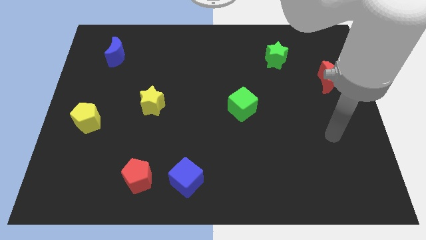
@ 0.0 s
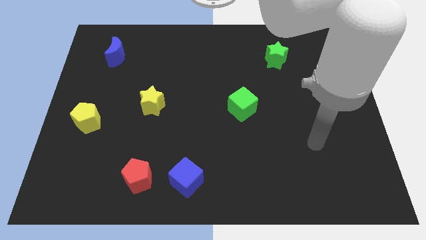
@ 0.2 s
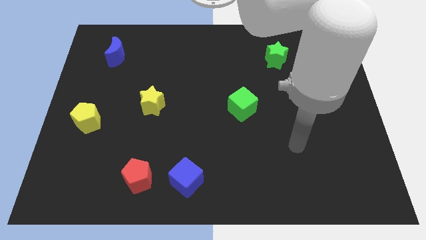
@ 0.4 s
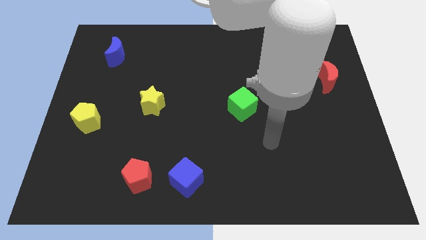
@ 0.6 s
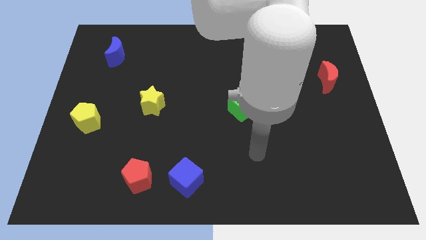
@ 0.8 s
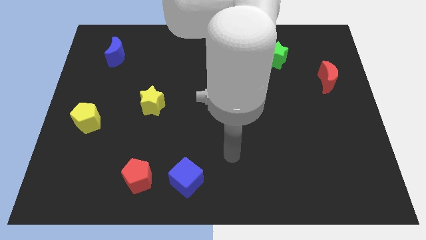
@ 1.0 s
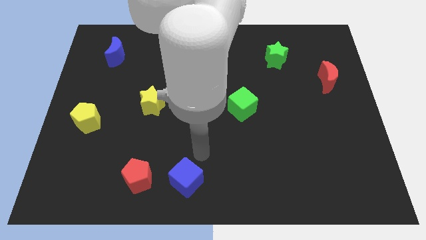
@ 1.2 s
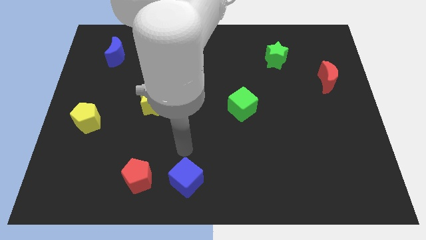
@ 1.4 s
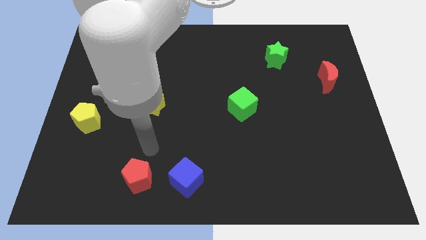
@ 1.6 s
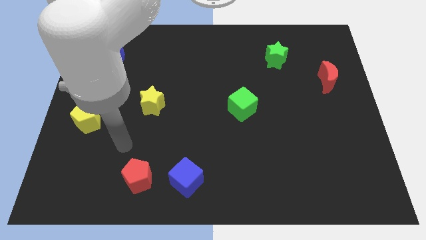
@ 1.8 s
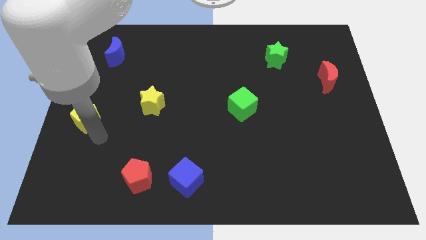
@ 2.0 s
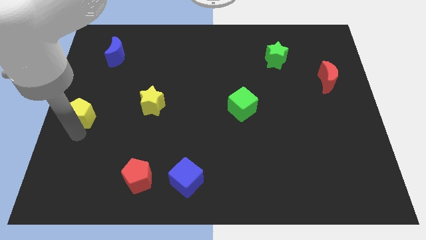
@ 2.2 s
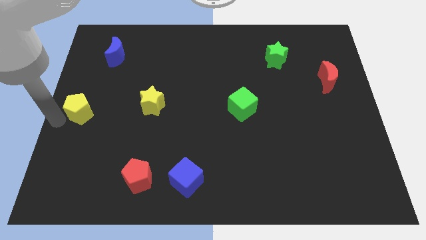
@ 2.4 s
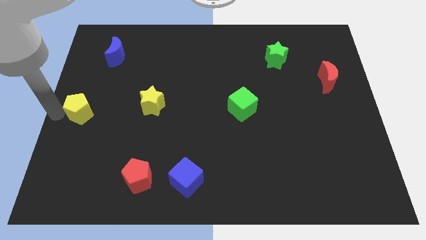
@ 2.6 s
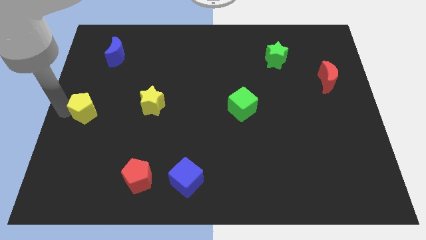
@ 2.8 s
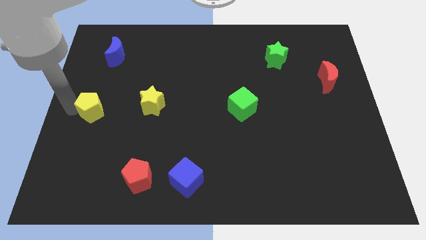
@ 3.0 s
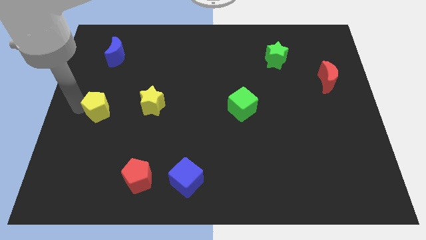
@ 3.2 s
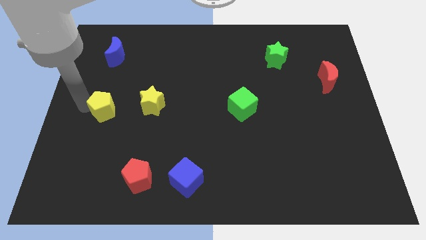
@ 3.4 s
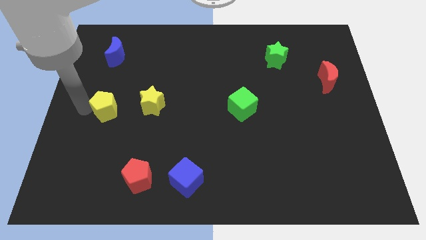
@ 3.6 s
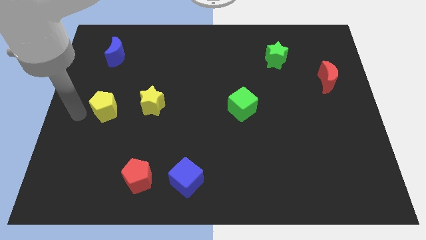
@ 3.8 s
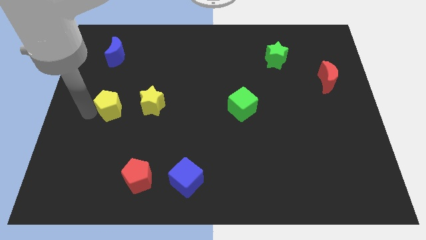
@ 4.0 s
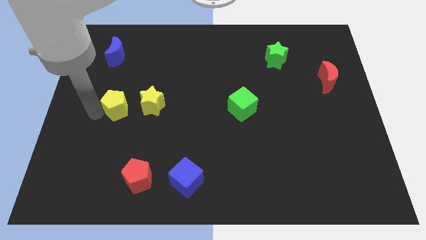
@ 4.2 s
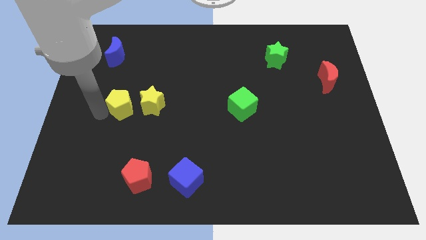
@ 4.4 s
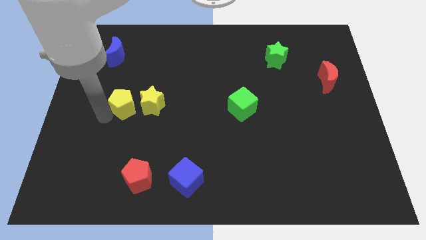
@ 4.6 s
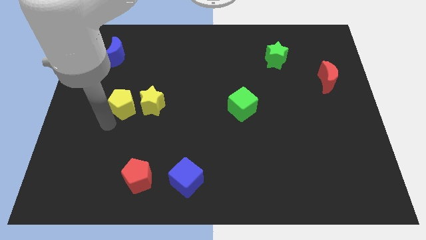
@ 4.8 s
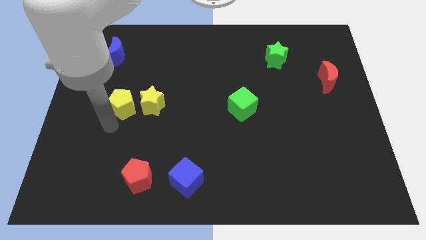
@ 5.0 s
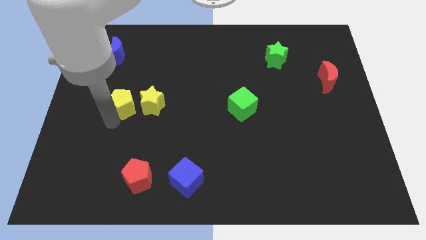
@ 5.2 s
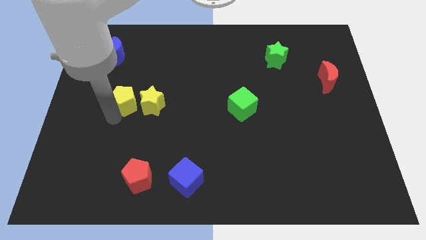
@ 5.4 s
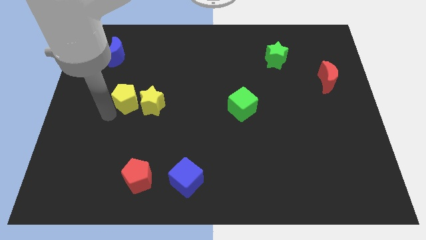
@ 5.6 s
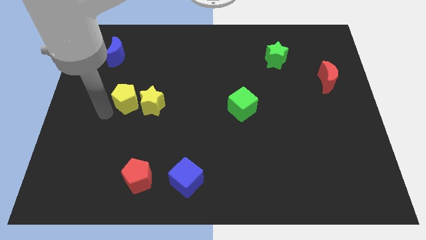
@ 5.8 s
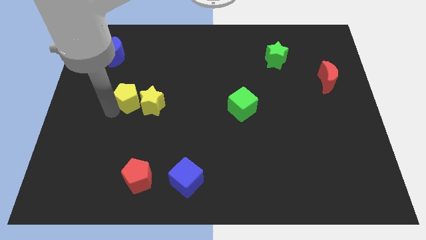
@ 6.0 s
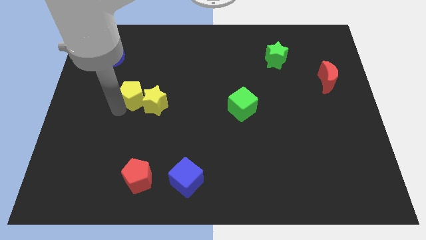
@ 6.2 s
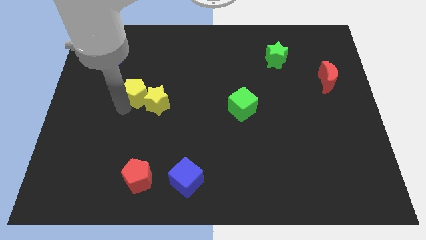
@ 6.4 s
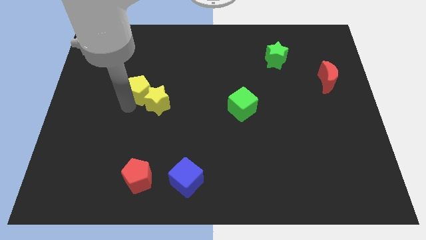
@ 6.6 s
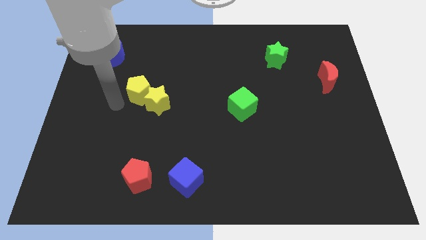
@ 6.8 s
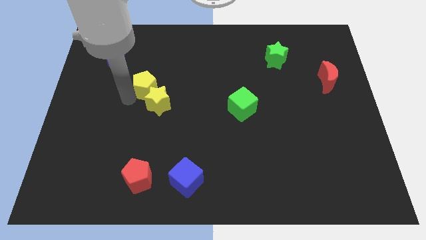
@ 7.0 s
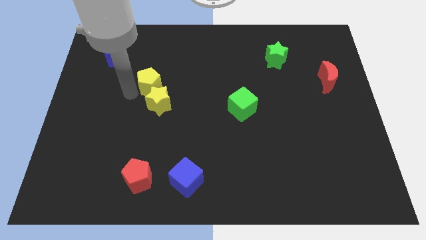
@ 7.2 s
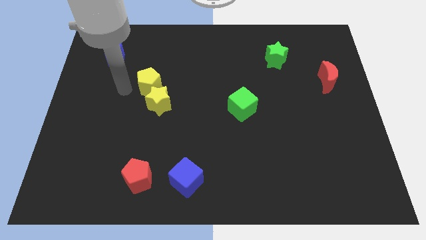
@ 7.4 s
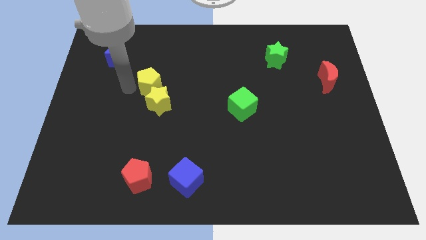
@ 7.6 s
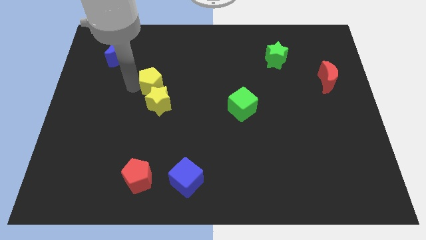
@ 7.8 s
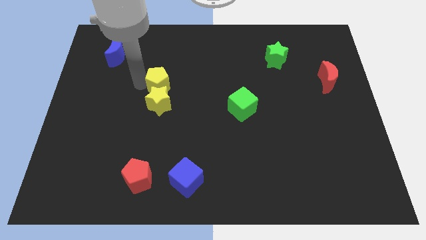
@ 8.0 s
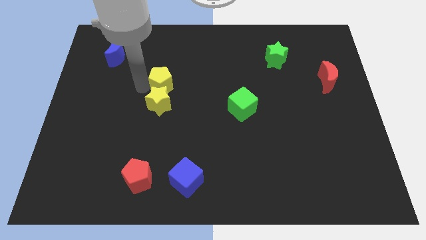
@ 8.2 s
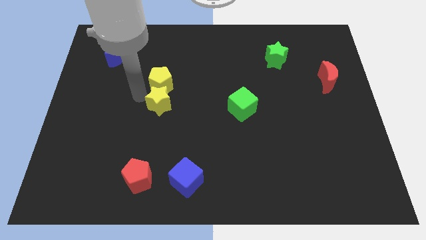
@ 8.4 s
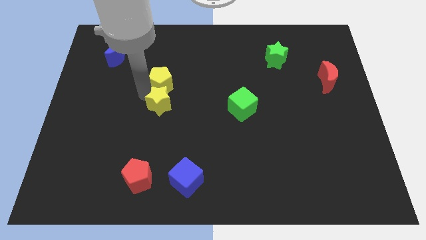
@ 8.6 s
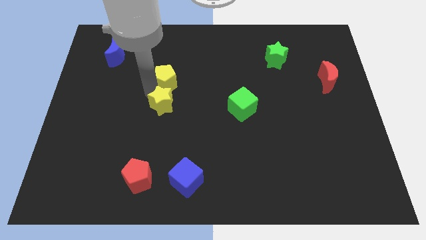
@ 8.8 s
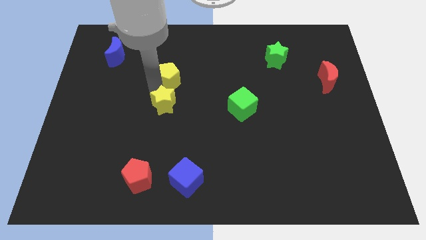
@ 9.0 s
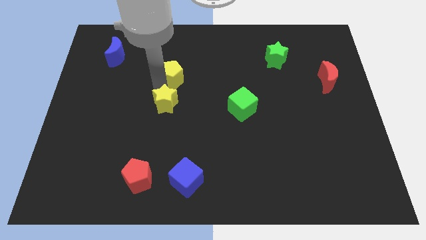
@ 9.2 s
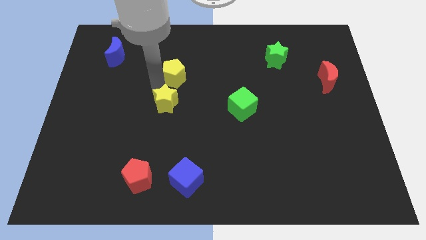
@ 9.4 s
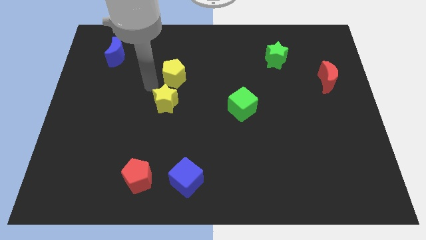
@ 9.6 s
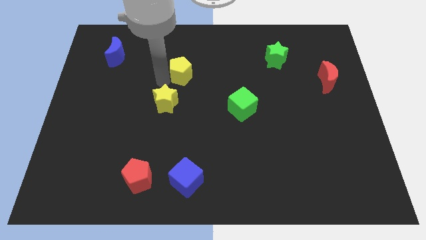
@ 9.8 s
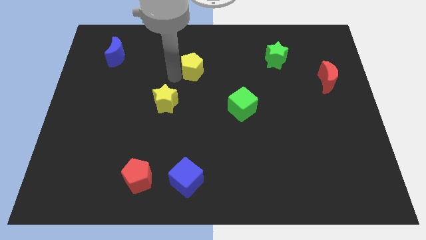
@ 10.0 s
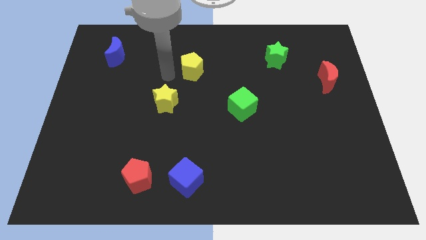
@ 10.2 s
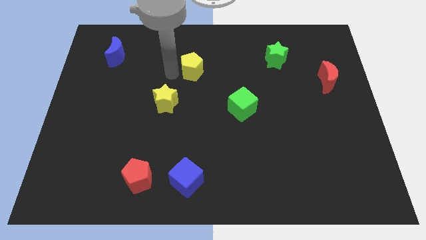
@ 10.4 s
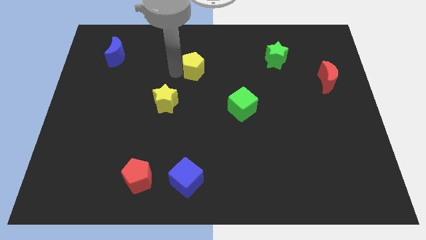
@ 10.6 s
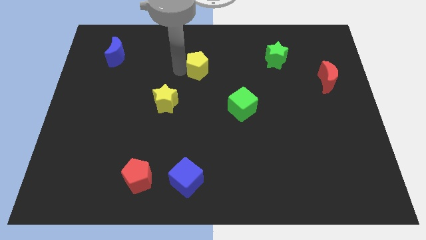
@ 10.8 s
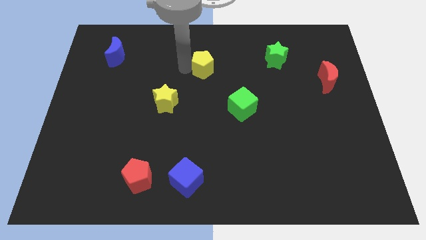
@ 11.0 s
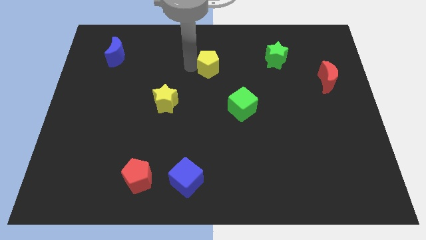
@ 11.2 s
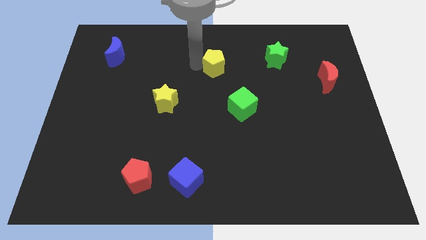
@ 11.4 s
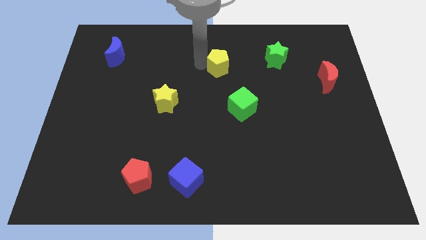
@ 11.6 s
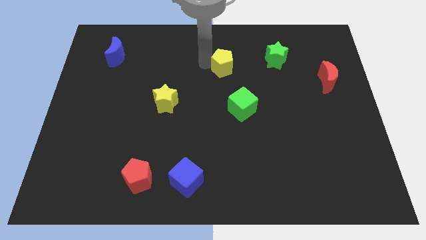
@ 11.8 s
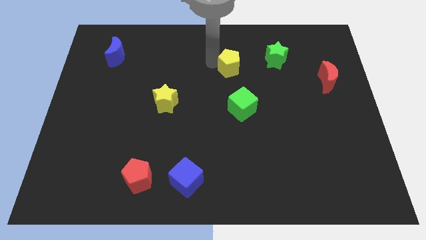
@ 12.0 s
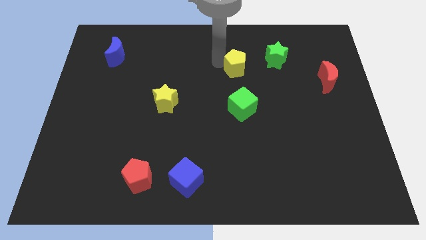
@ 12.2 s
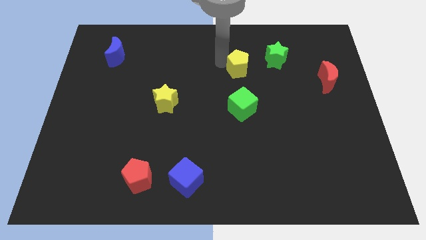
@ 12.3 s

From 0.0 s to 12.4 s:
move the yellow pentagon diagonally down and to the left of the green star

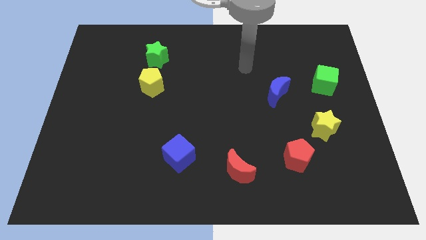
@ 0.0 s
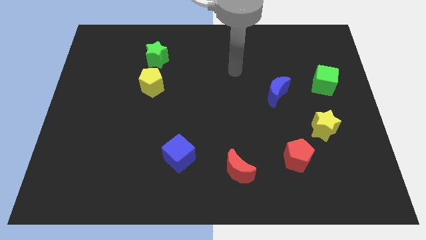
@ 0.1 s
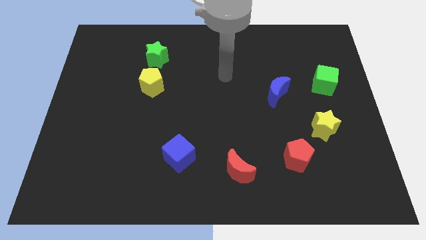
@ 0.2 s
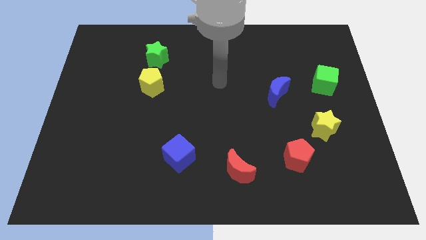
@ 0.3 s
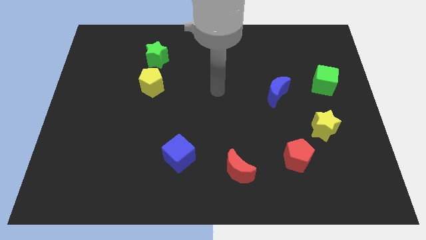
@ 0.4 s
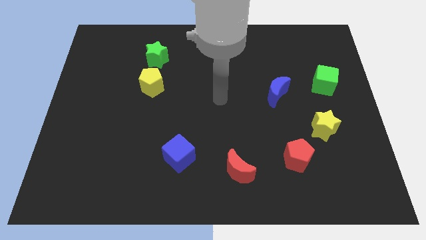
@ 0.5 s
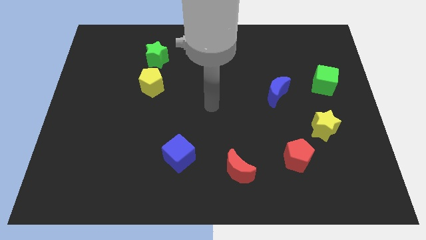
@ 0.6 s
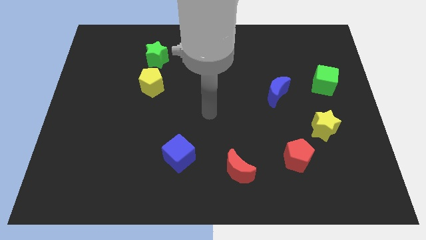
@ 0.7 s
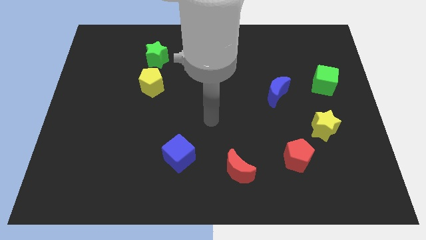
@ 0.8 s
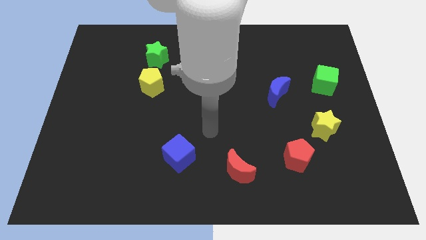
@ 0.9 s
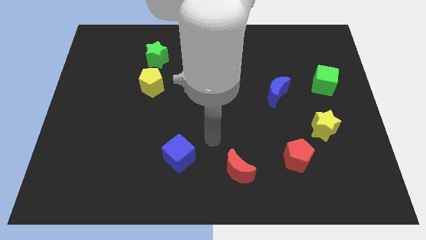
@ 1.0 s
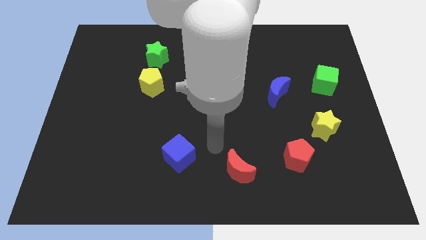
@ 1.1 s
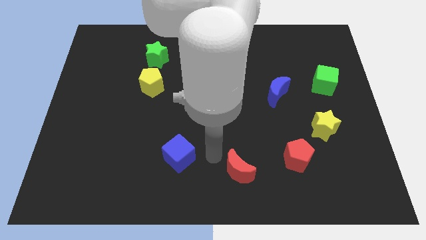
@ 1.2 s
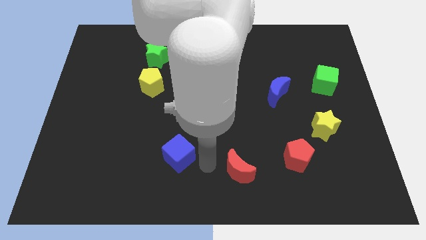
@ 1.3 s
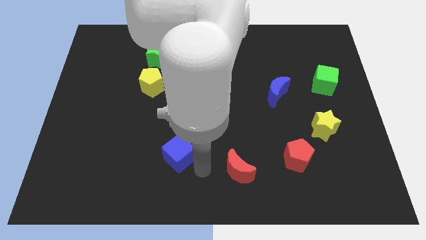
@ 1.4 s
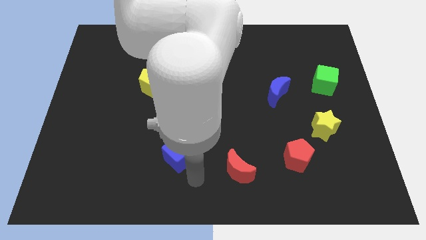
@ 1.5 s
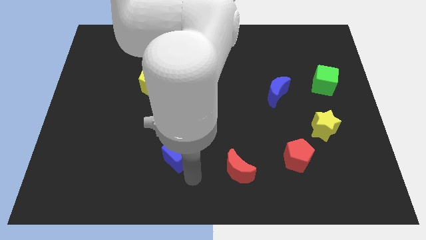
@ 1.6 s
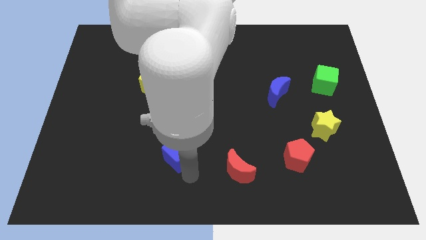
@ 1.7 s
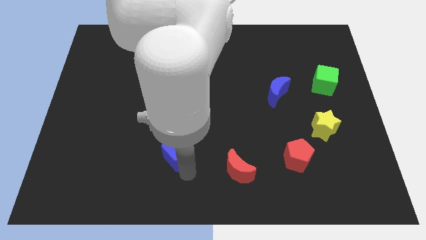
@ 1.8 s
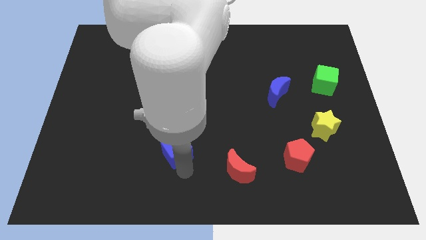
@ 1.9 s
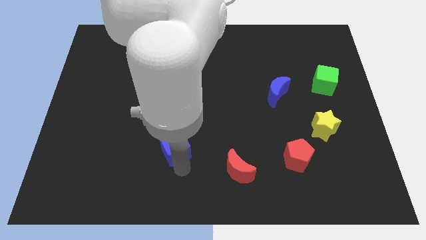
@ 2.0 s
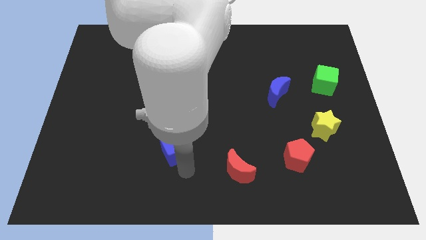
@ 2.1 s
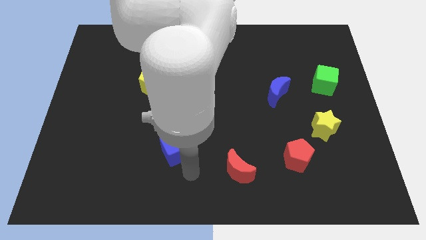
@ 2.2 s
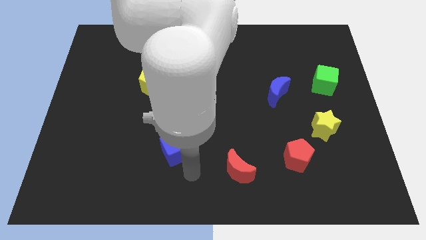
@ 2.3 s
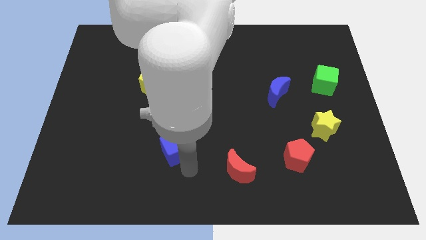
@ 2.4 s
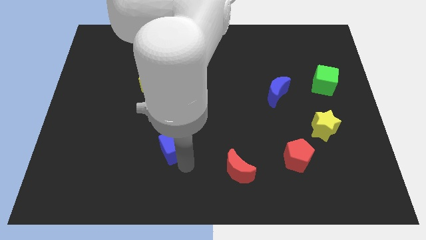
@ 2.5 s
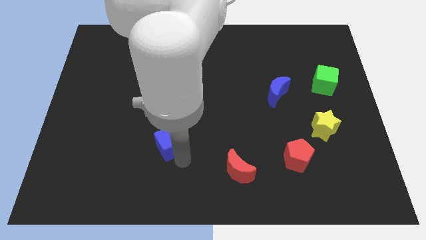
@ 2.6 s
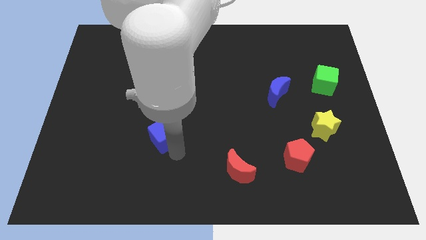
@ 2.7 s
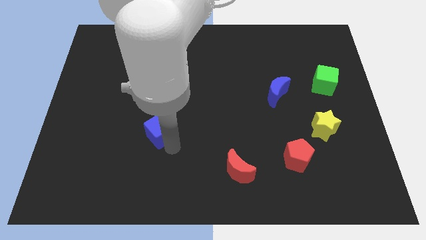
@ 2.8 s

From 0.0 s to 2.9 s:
put the blue cube to the bottom of the yellow pentagon
